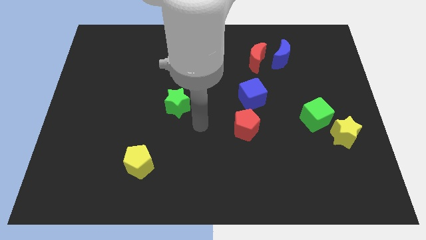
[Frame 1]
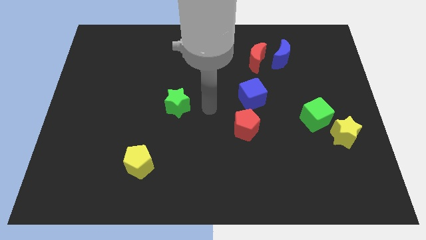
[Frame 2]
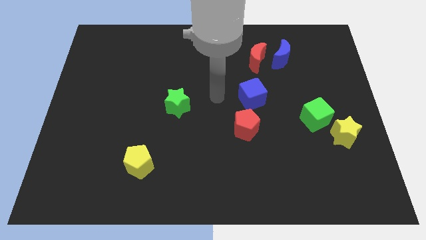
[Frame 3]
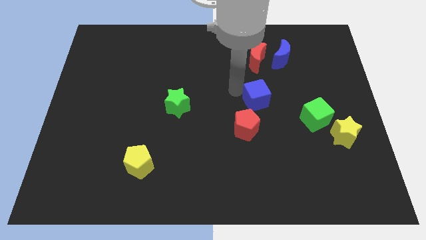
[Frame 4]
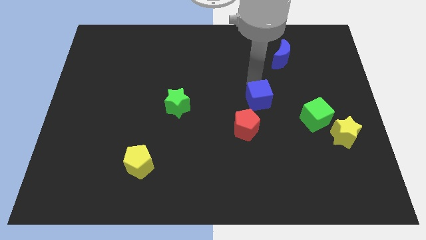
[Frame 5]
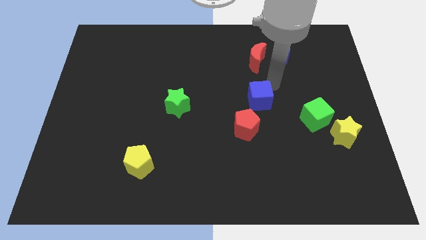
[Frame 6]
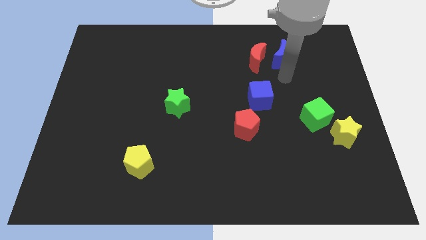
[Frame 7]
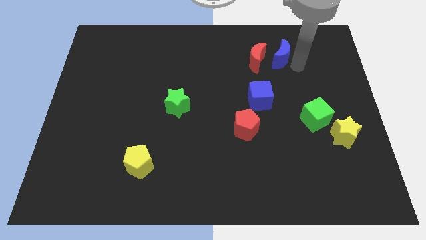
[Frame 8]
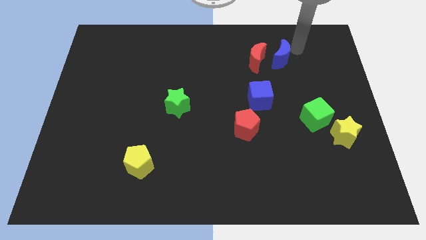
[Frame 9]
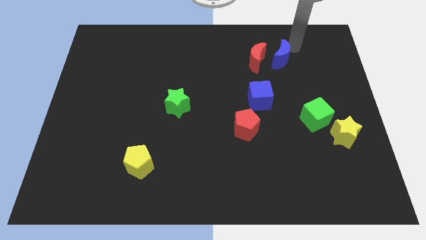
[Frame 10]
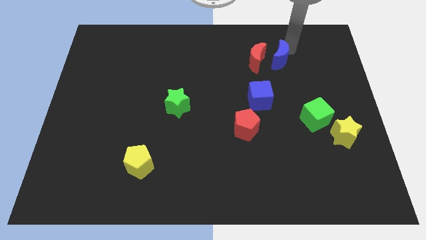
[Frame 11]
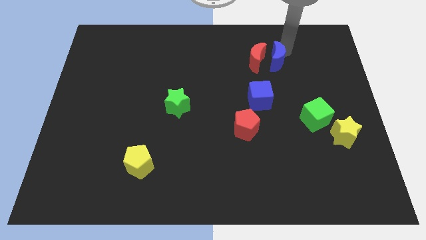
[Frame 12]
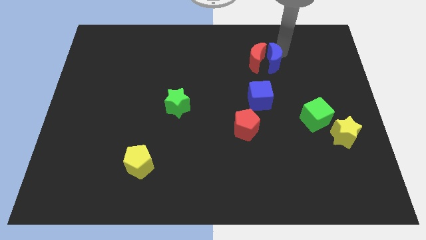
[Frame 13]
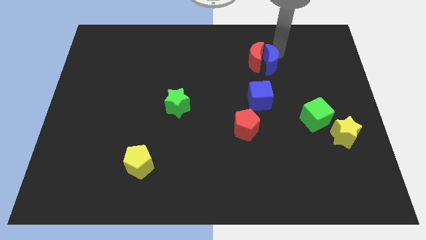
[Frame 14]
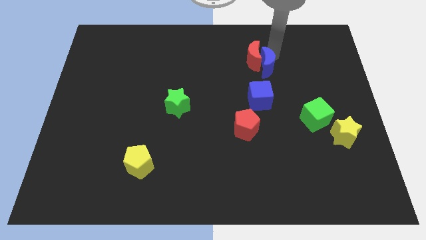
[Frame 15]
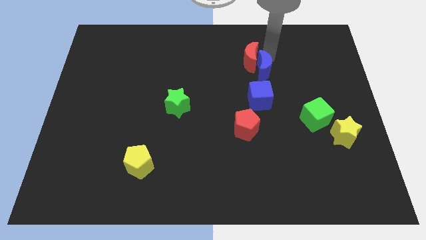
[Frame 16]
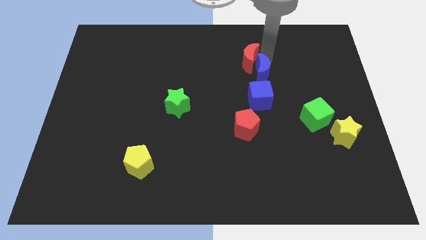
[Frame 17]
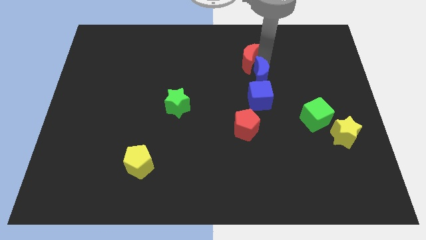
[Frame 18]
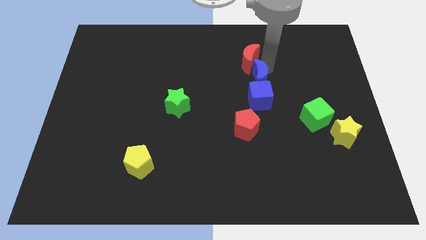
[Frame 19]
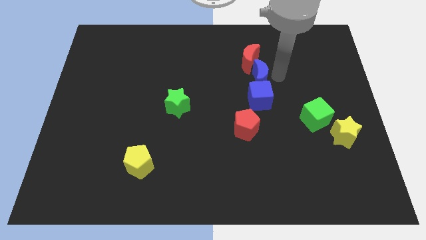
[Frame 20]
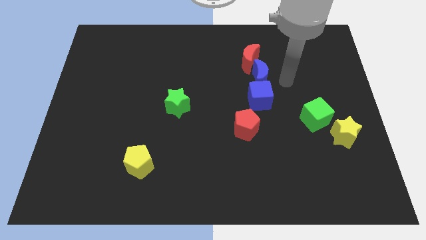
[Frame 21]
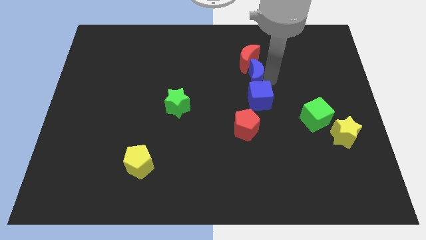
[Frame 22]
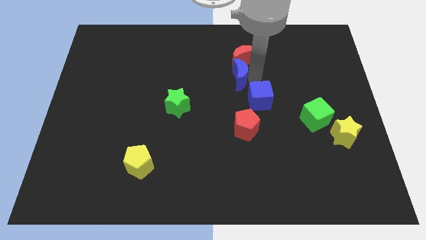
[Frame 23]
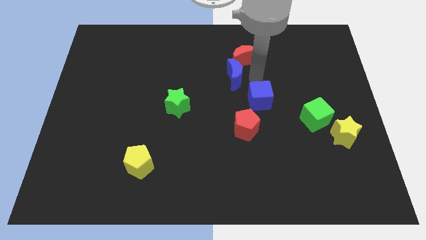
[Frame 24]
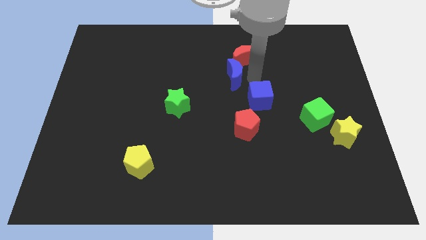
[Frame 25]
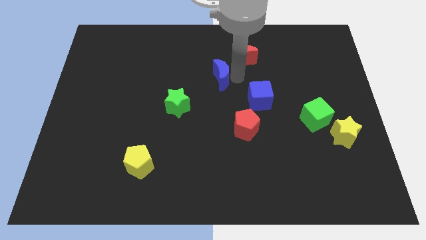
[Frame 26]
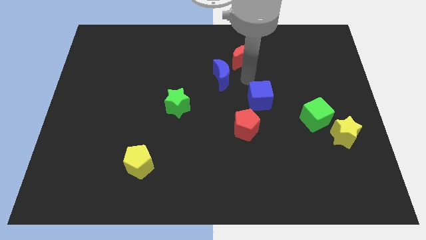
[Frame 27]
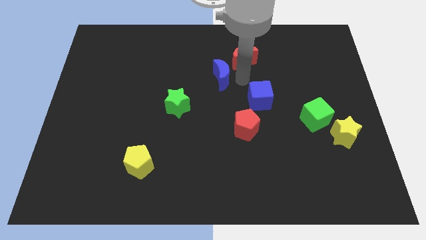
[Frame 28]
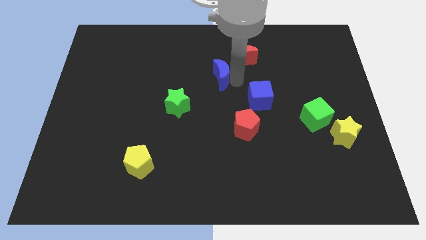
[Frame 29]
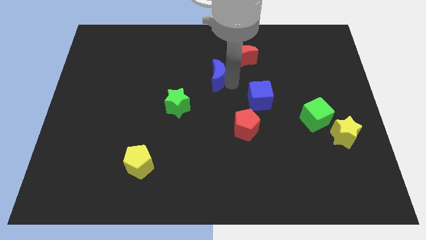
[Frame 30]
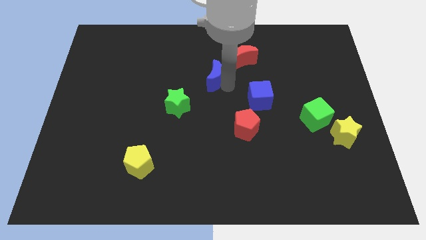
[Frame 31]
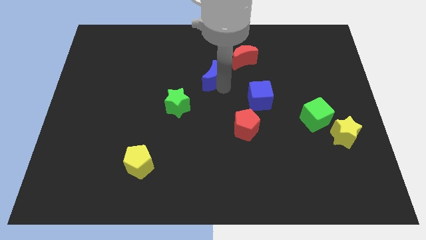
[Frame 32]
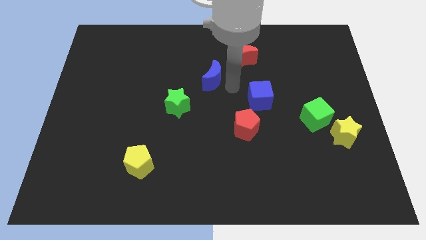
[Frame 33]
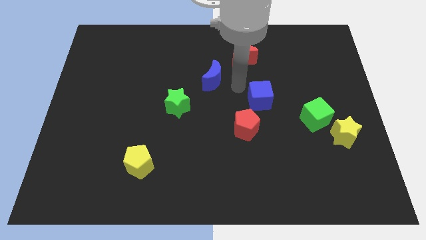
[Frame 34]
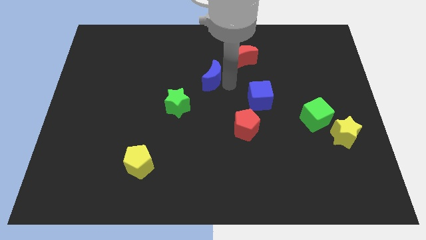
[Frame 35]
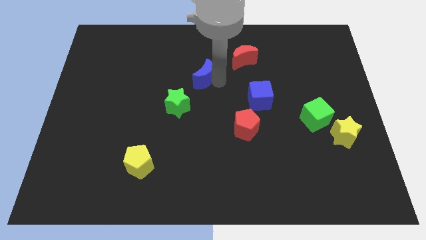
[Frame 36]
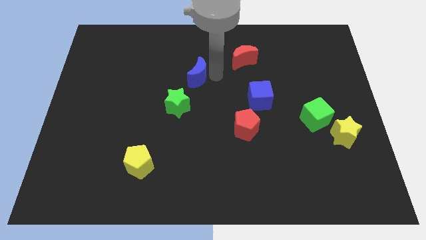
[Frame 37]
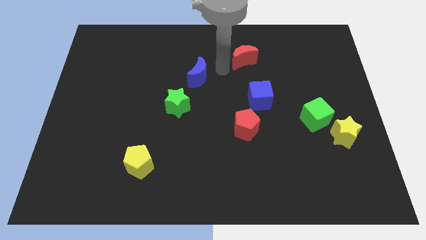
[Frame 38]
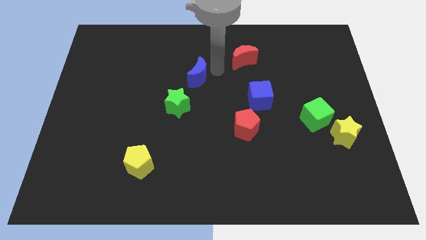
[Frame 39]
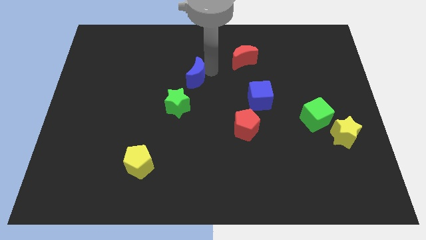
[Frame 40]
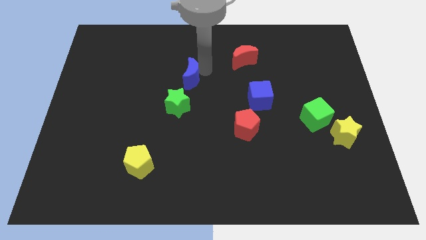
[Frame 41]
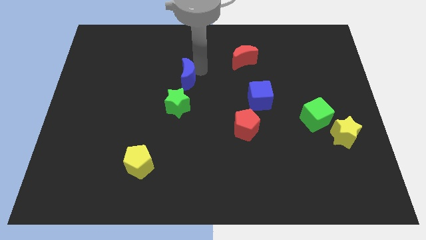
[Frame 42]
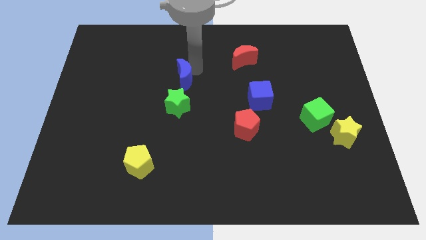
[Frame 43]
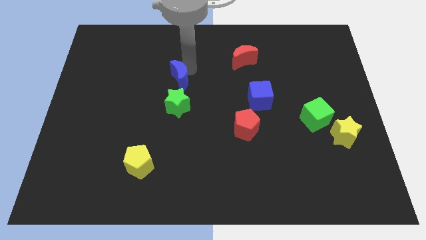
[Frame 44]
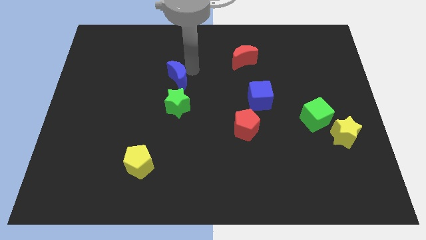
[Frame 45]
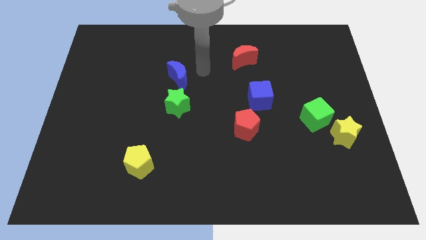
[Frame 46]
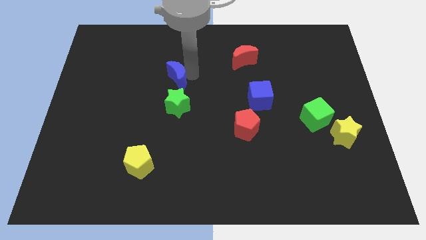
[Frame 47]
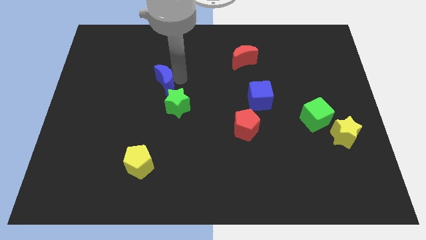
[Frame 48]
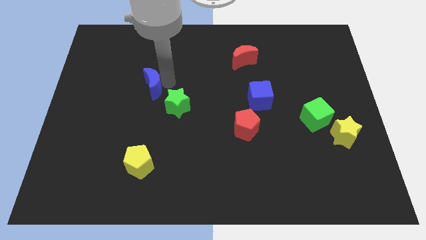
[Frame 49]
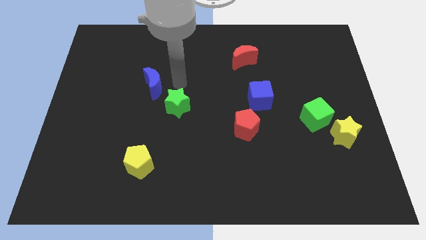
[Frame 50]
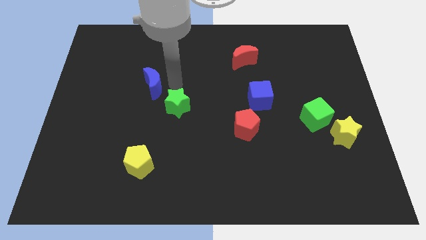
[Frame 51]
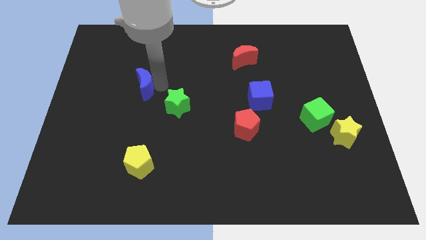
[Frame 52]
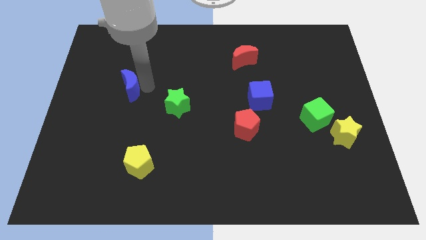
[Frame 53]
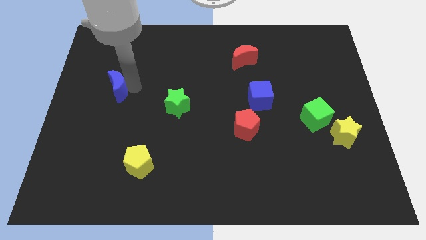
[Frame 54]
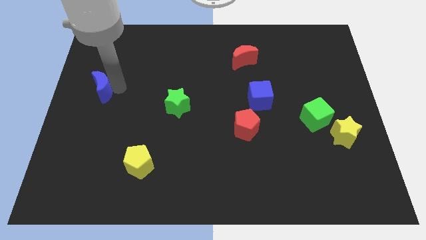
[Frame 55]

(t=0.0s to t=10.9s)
put the blue moon to the left side
